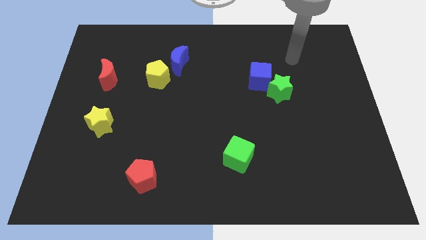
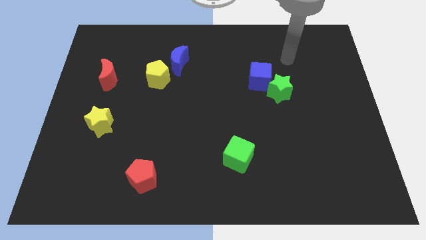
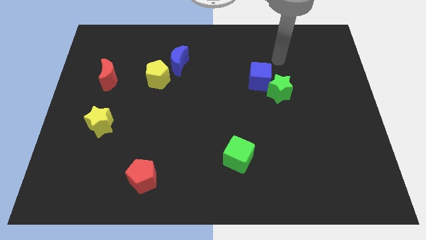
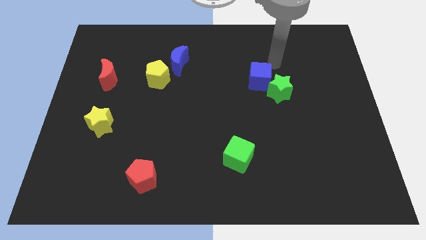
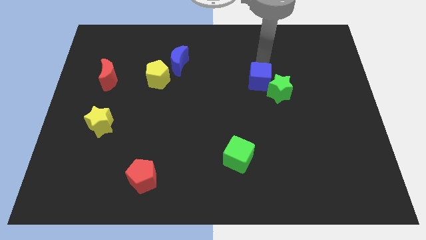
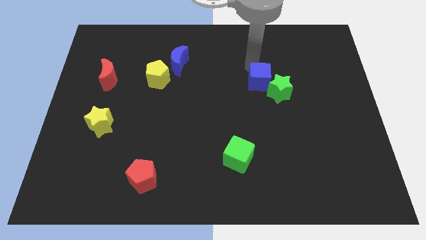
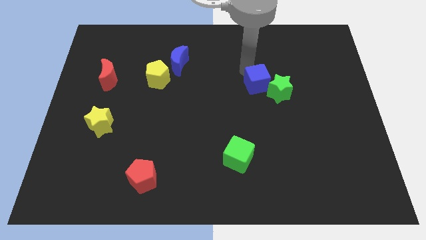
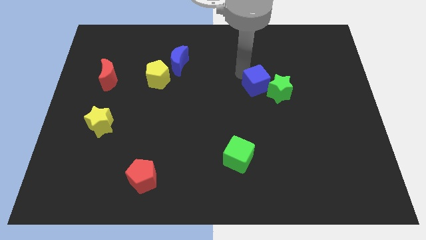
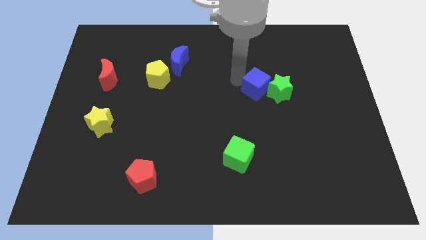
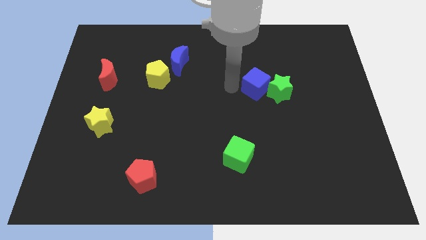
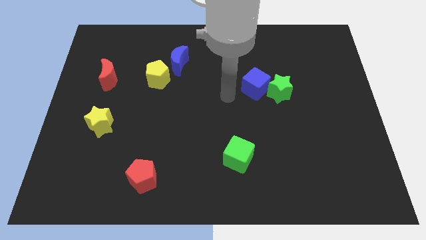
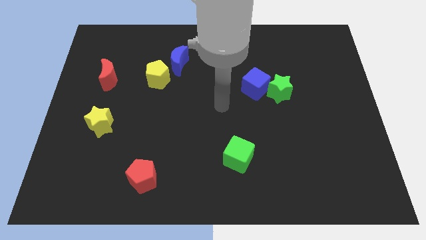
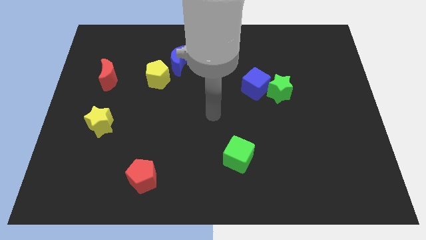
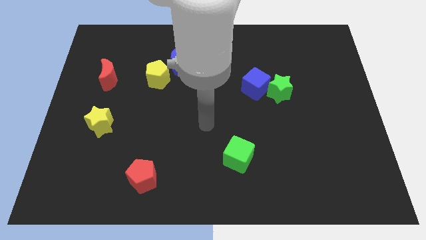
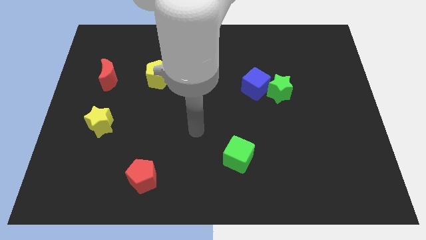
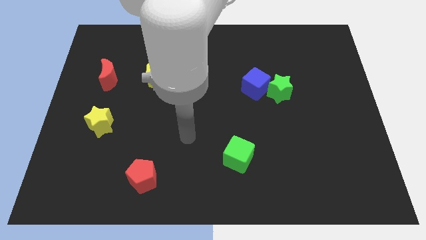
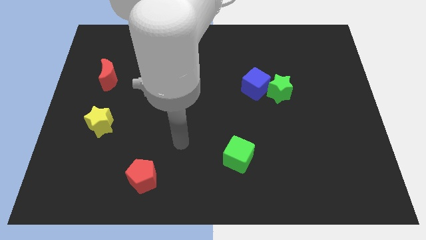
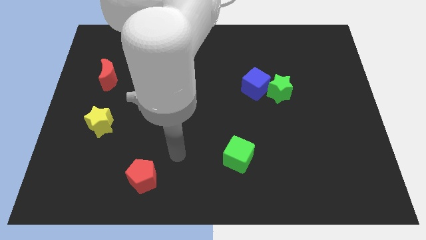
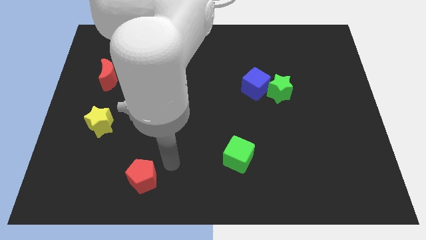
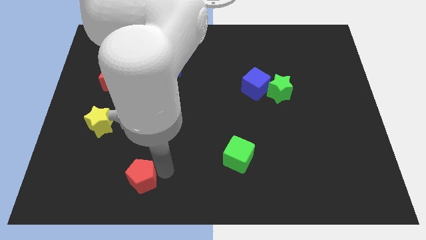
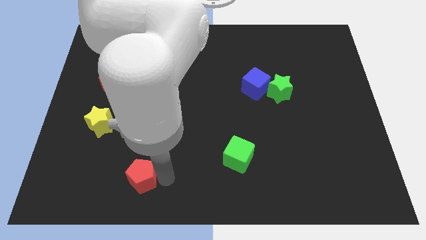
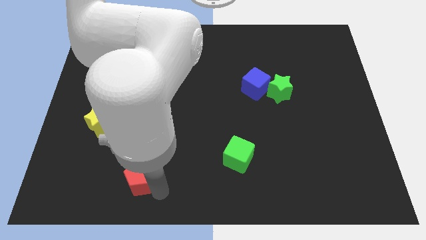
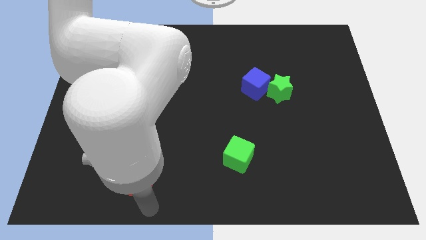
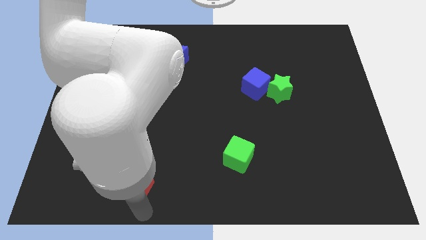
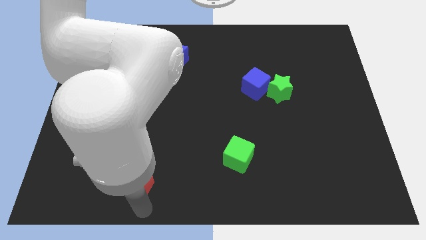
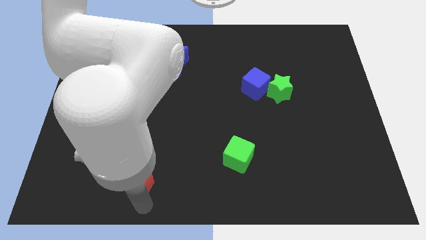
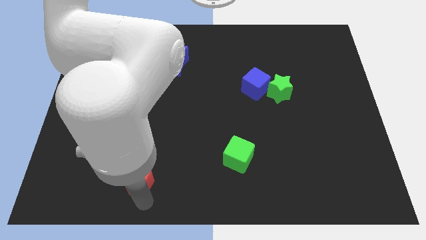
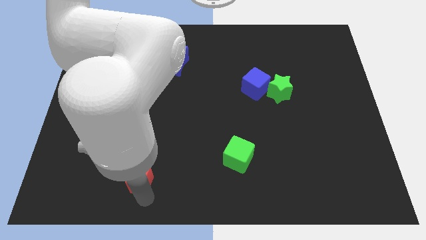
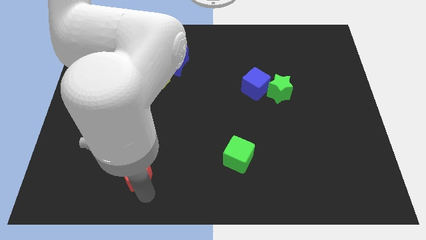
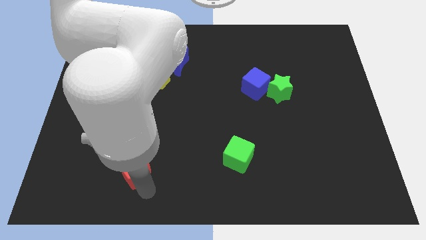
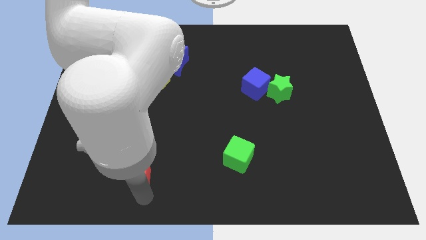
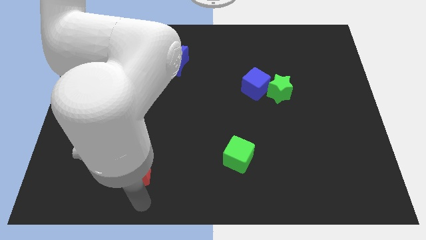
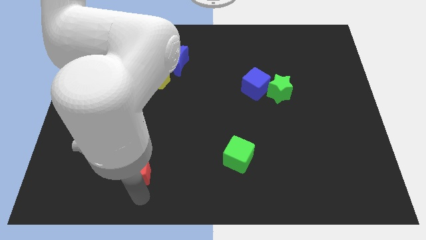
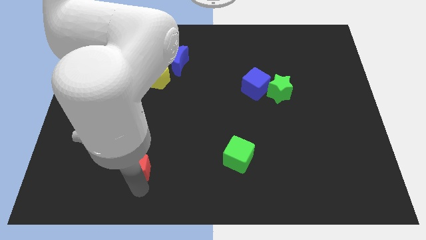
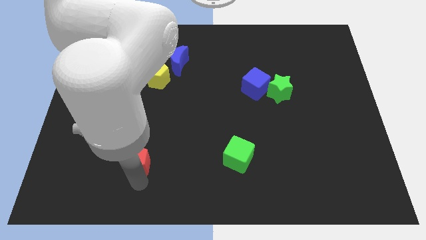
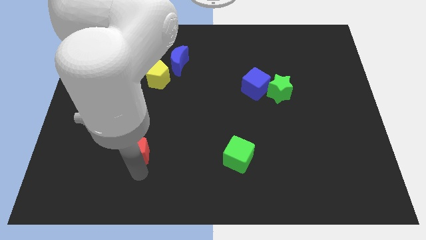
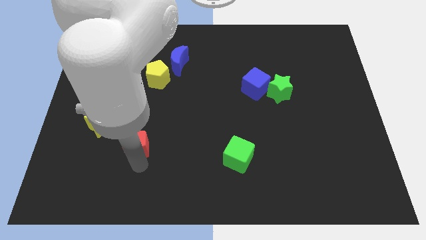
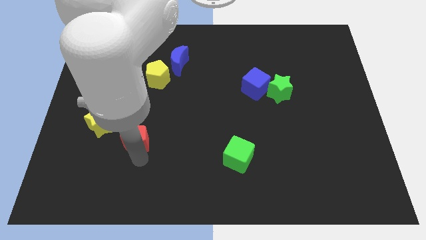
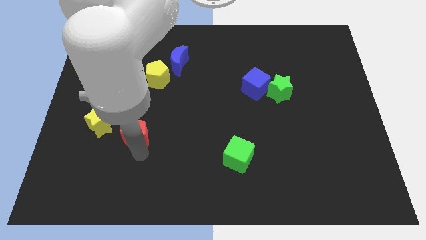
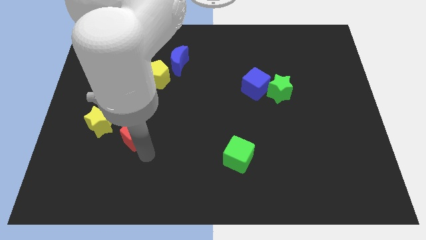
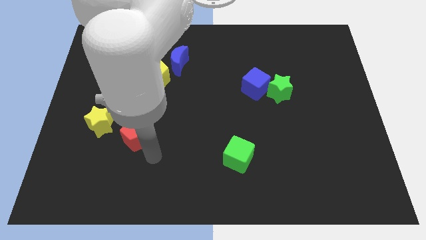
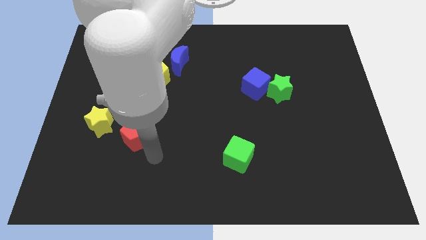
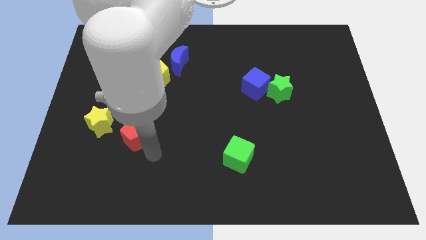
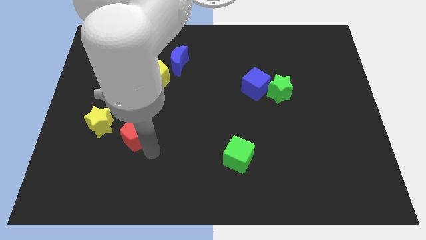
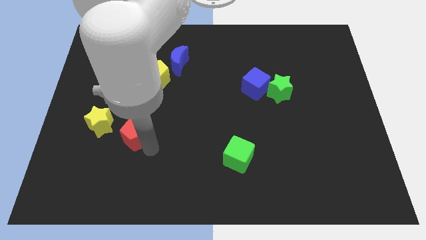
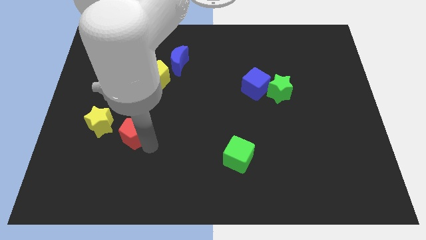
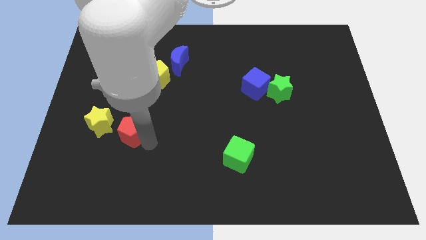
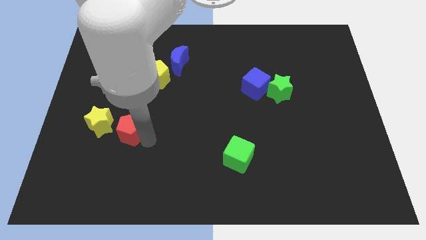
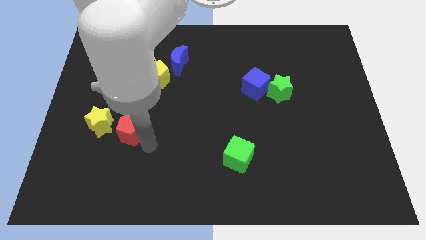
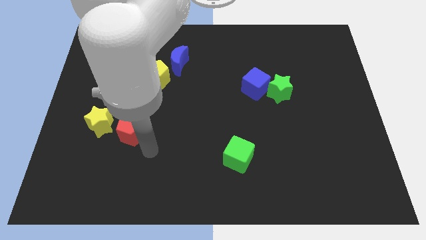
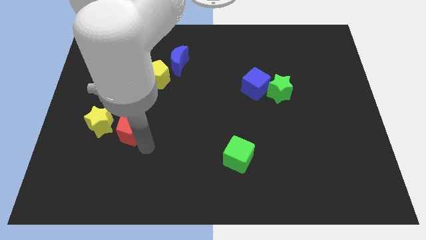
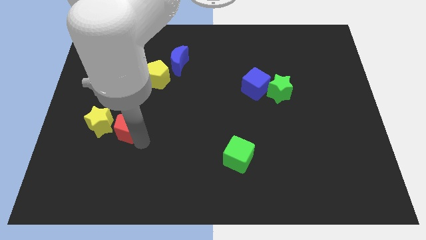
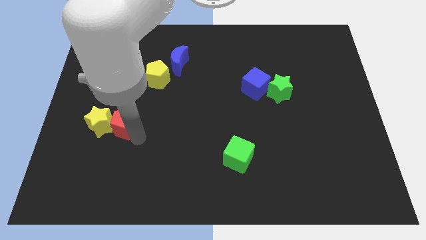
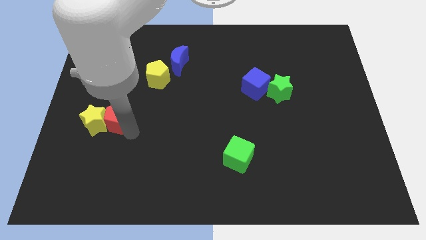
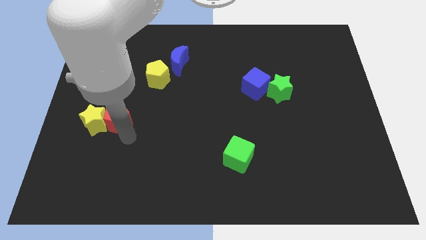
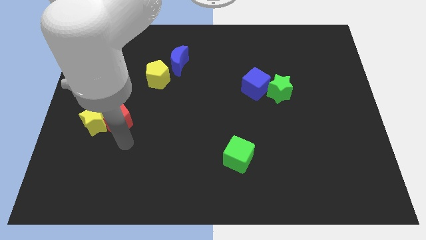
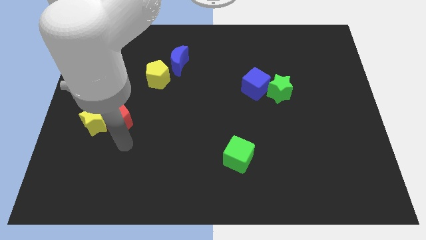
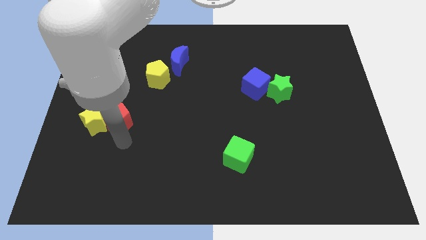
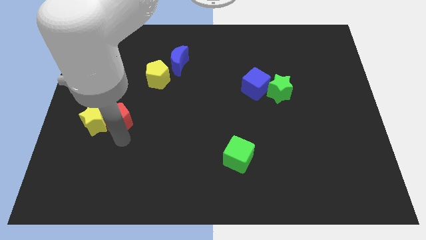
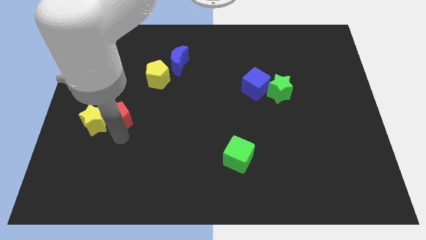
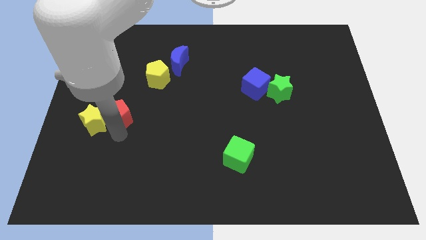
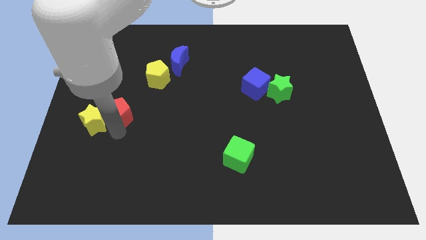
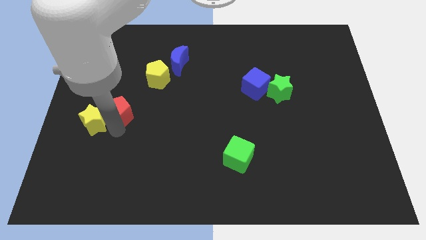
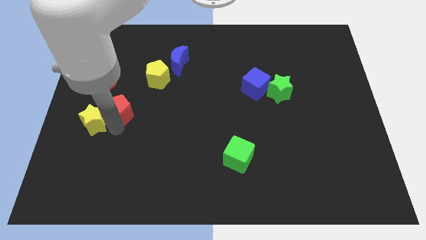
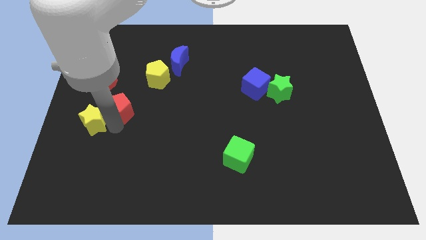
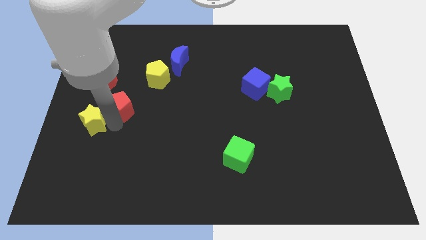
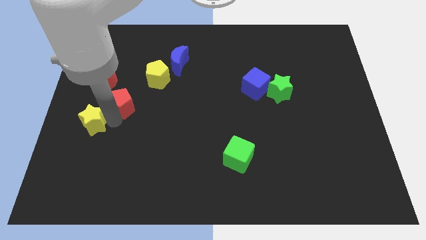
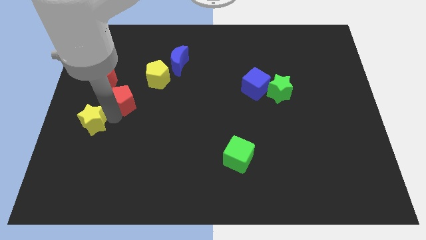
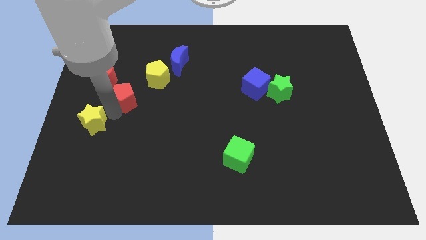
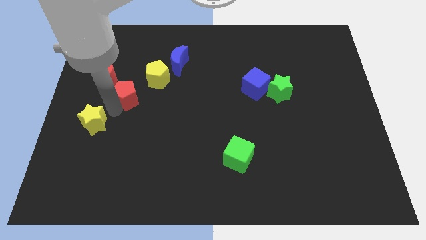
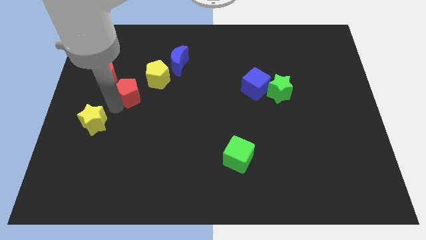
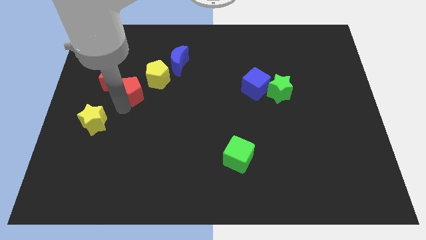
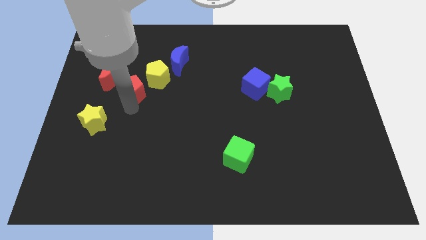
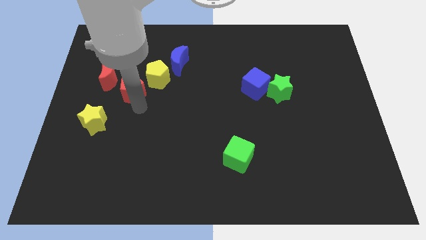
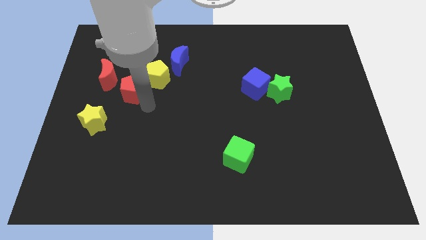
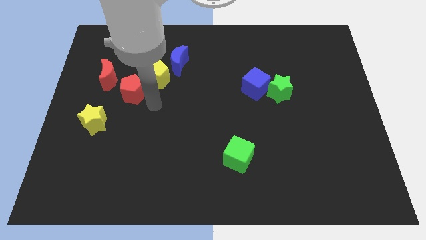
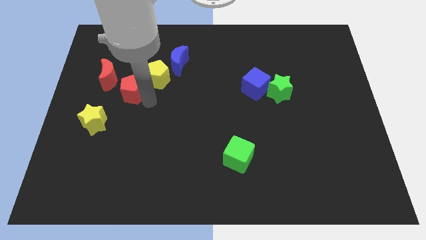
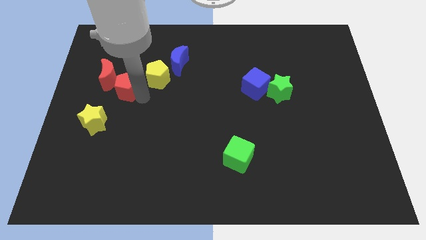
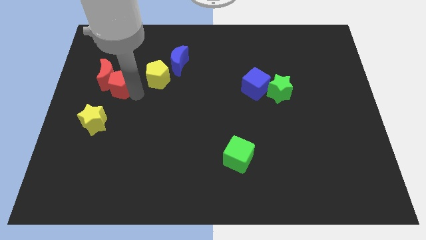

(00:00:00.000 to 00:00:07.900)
put the red pentagon close to the red moon
